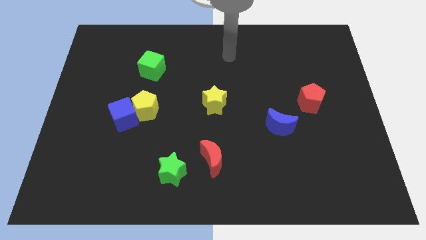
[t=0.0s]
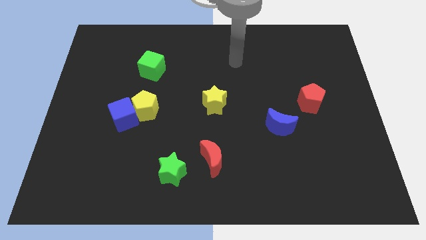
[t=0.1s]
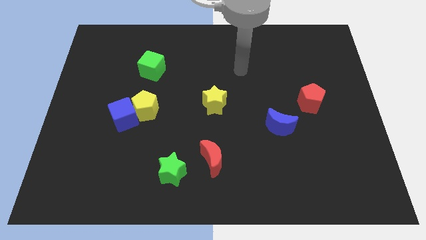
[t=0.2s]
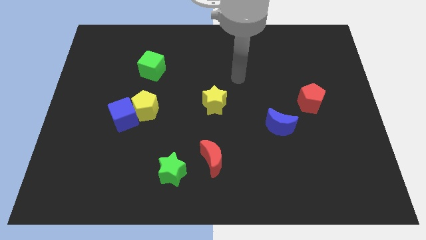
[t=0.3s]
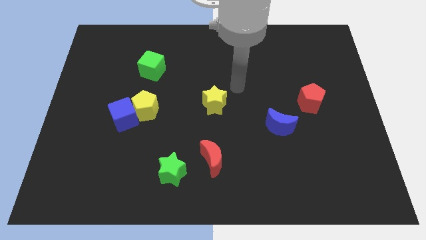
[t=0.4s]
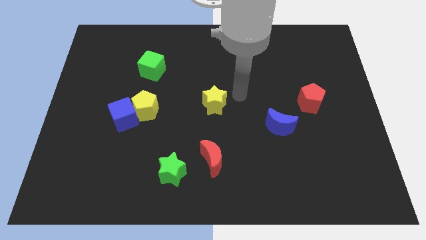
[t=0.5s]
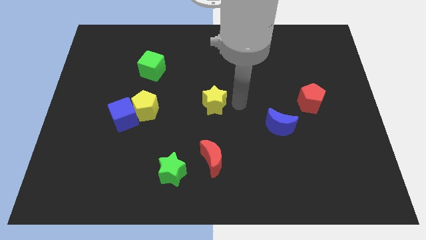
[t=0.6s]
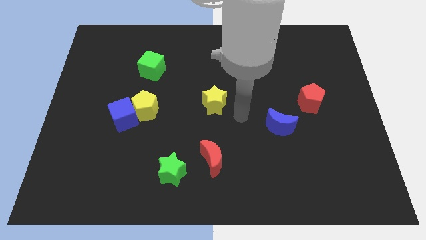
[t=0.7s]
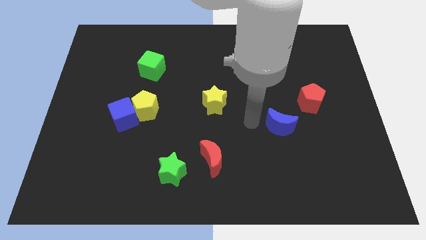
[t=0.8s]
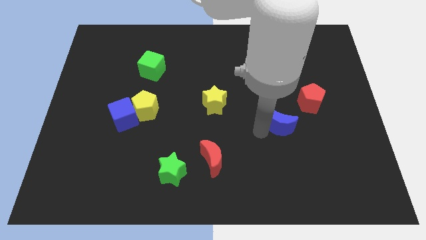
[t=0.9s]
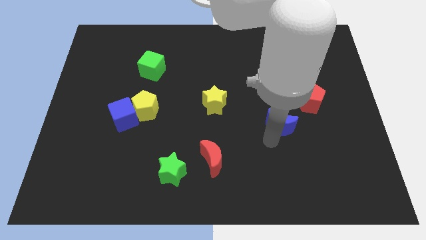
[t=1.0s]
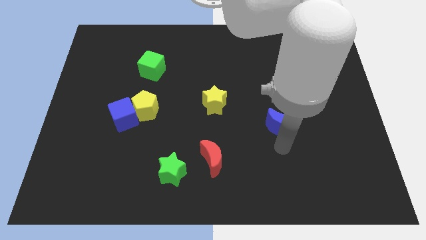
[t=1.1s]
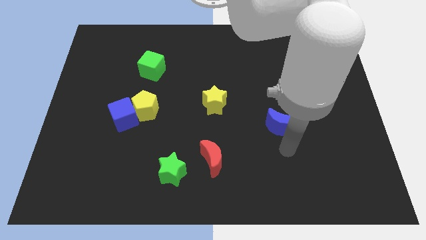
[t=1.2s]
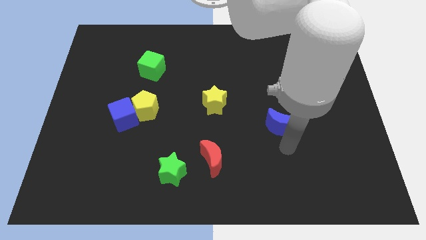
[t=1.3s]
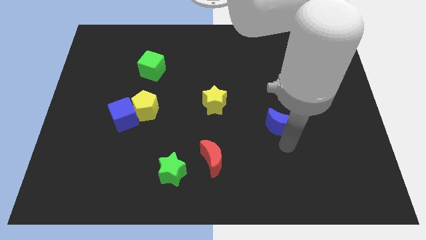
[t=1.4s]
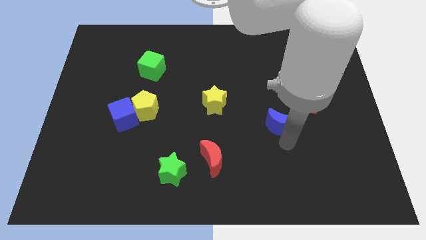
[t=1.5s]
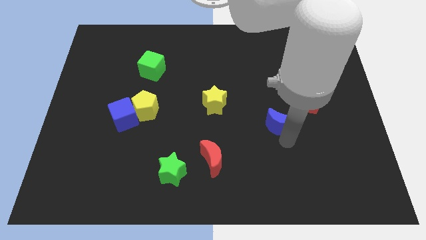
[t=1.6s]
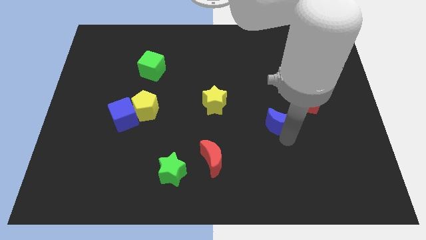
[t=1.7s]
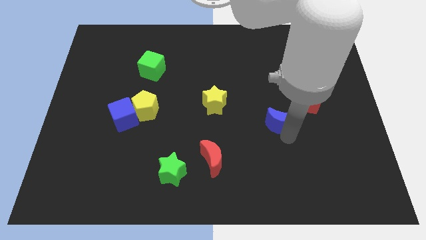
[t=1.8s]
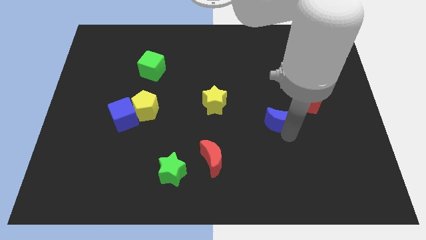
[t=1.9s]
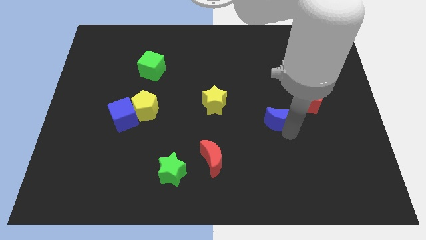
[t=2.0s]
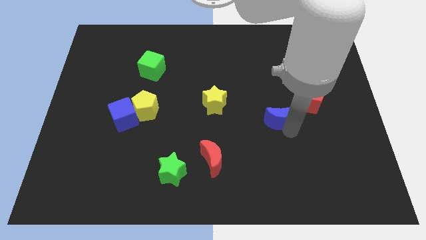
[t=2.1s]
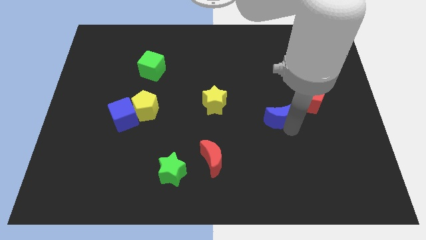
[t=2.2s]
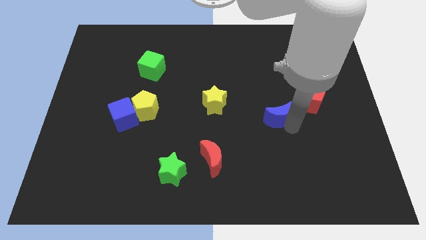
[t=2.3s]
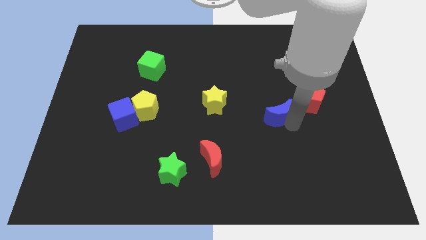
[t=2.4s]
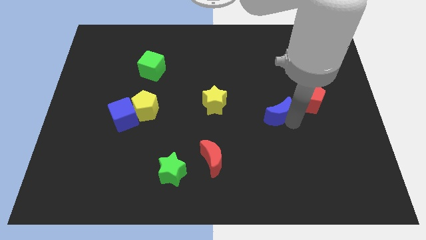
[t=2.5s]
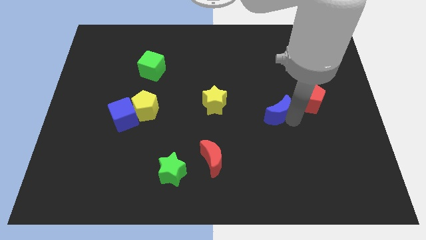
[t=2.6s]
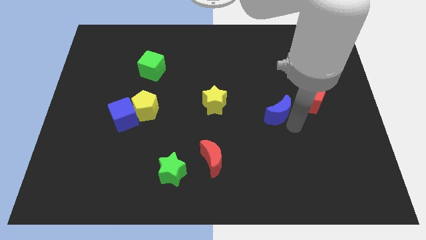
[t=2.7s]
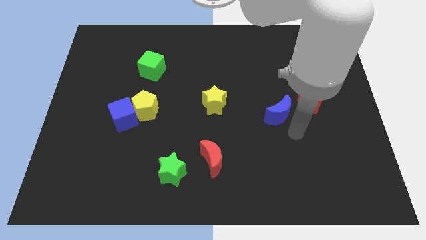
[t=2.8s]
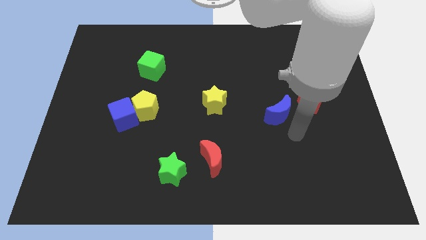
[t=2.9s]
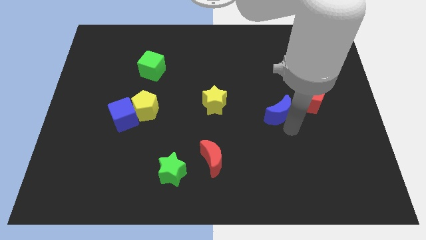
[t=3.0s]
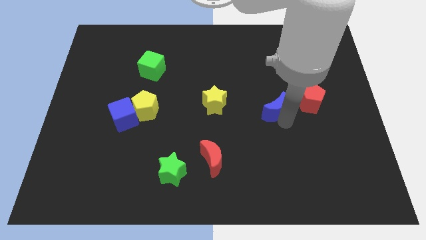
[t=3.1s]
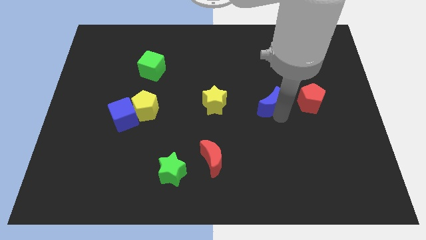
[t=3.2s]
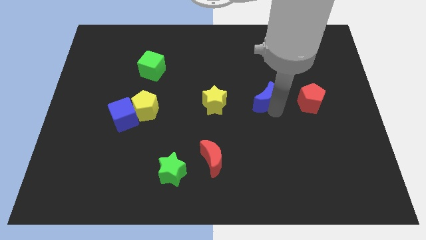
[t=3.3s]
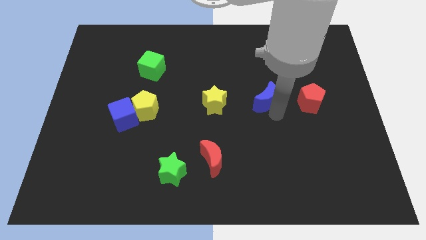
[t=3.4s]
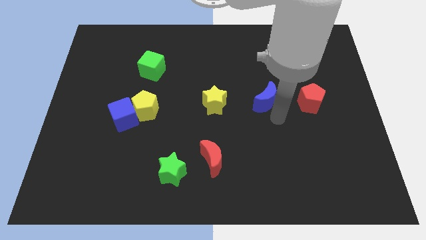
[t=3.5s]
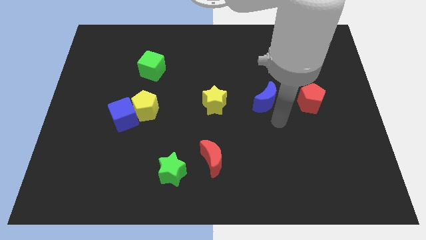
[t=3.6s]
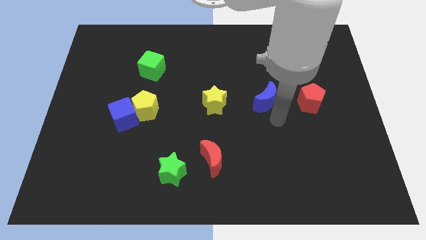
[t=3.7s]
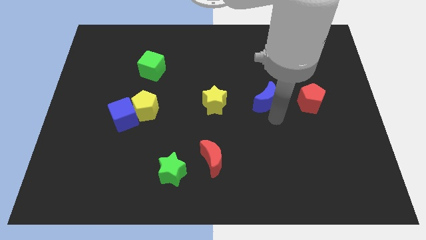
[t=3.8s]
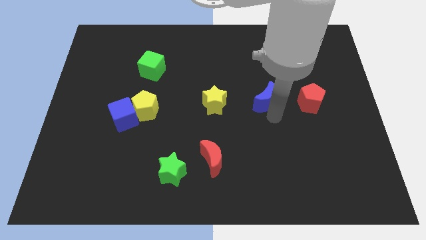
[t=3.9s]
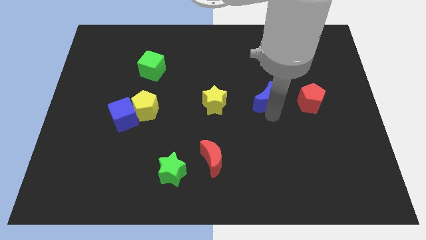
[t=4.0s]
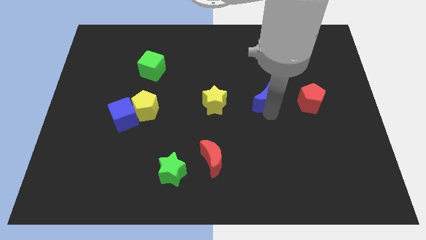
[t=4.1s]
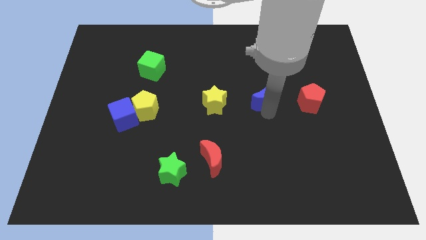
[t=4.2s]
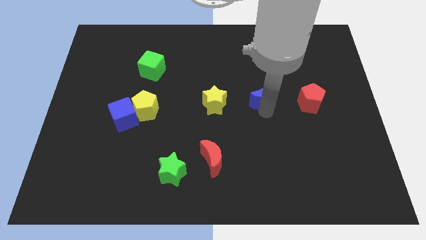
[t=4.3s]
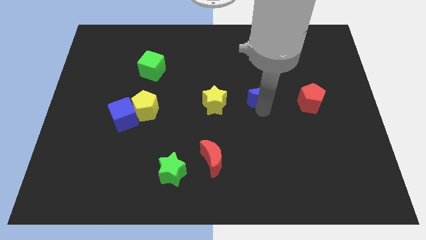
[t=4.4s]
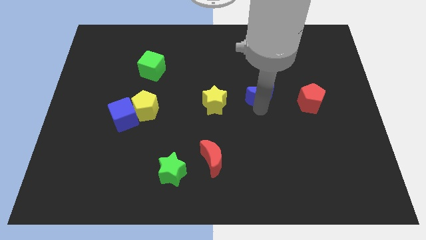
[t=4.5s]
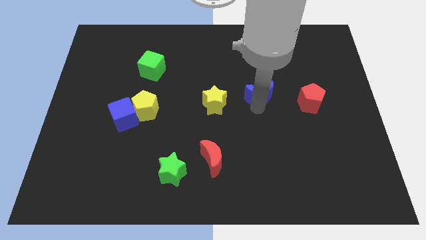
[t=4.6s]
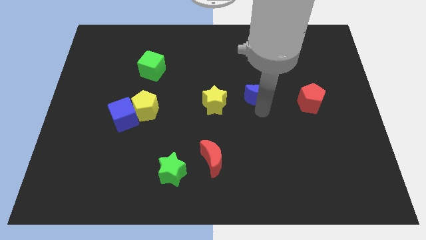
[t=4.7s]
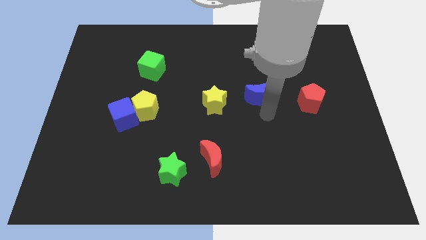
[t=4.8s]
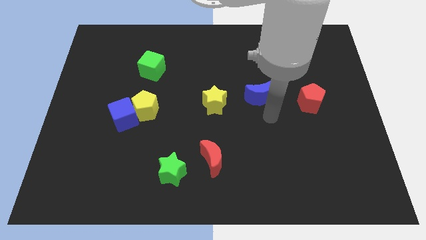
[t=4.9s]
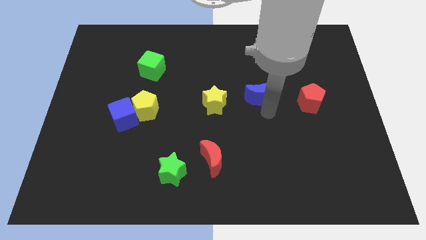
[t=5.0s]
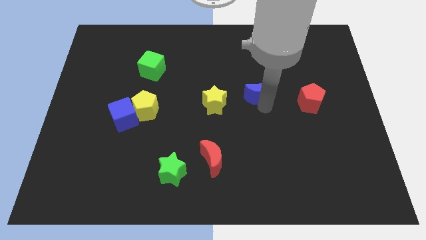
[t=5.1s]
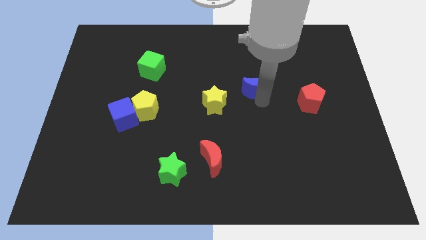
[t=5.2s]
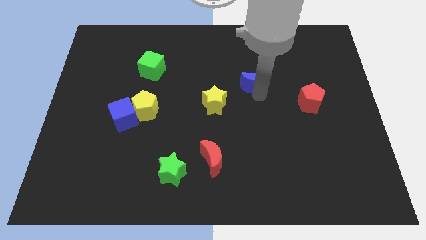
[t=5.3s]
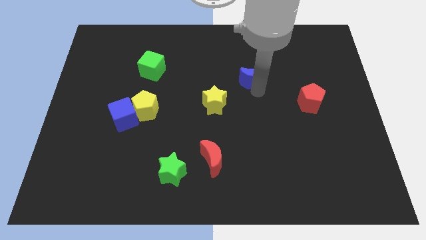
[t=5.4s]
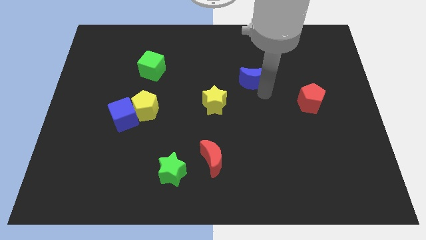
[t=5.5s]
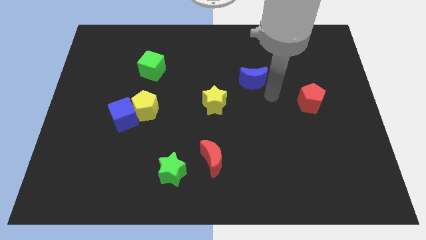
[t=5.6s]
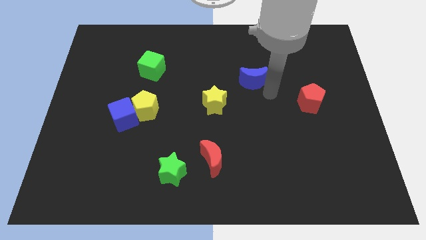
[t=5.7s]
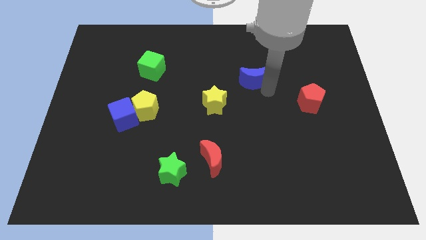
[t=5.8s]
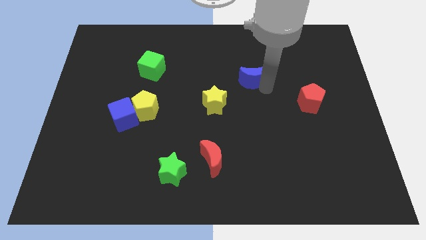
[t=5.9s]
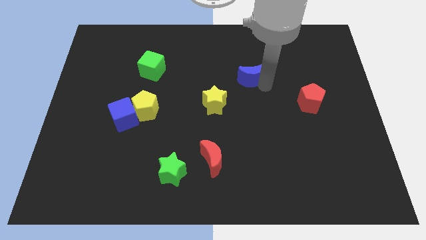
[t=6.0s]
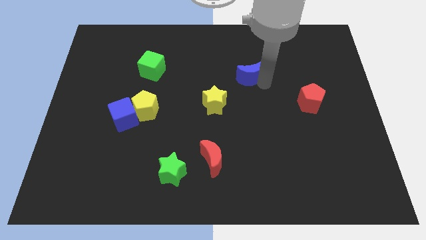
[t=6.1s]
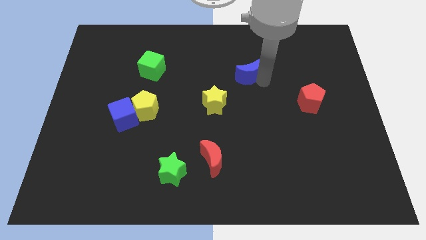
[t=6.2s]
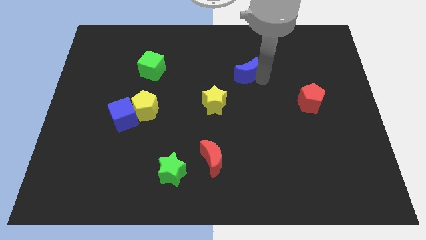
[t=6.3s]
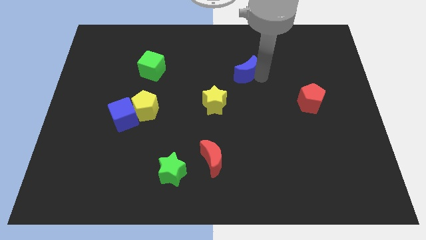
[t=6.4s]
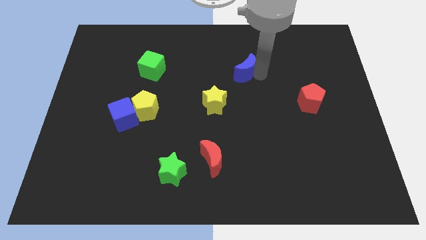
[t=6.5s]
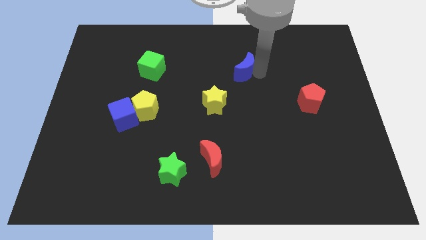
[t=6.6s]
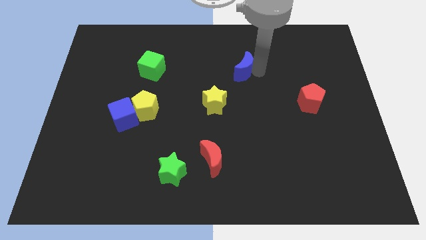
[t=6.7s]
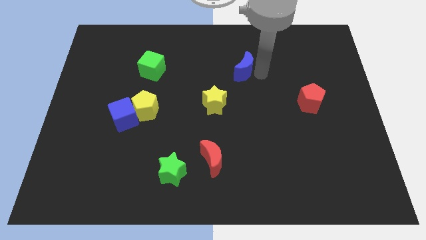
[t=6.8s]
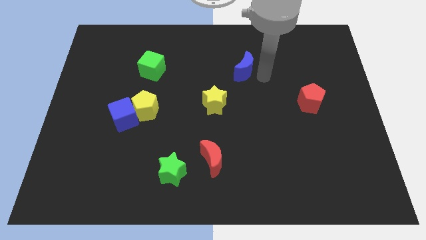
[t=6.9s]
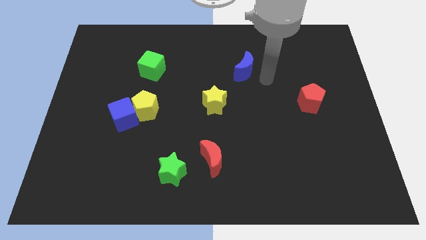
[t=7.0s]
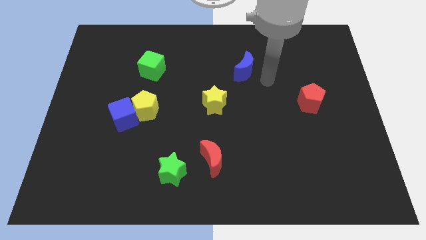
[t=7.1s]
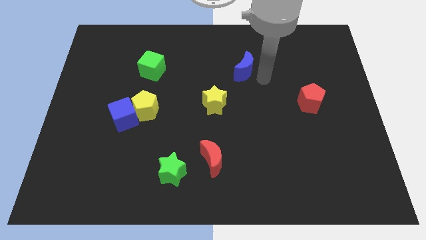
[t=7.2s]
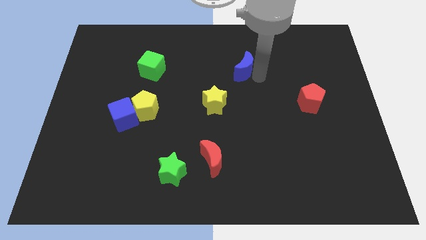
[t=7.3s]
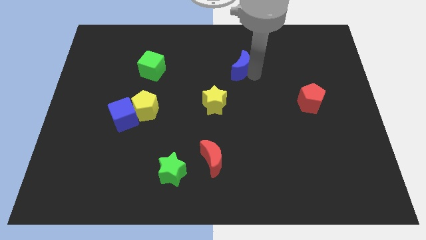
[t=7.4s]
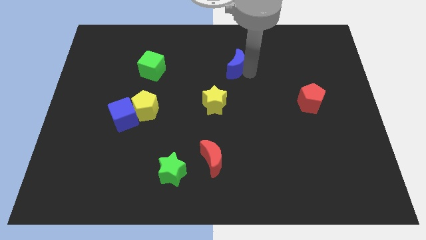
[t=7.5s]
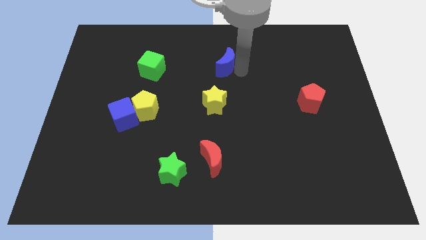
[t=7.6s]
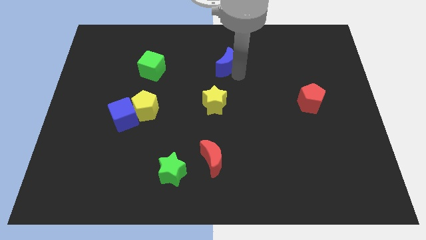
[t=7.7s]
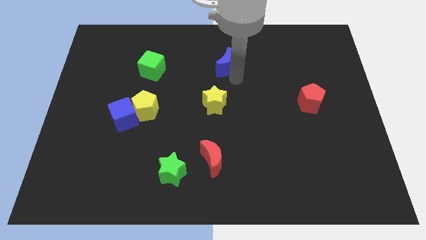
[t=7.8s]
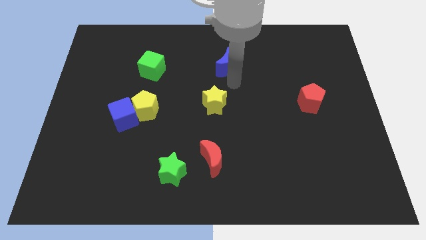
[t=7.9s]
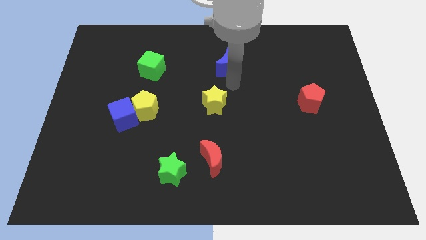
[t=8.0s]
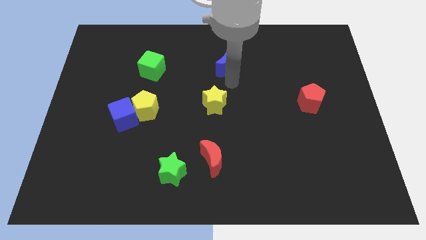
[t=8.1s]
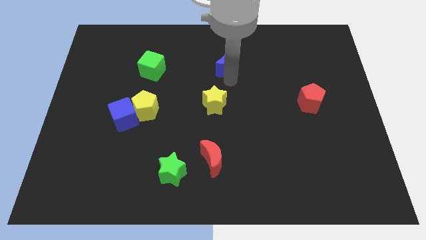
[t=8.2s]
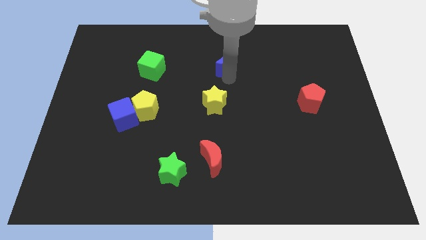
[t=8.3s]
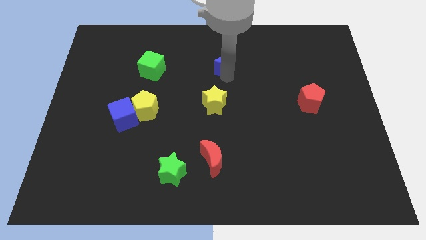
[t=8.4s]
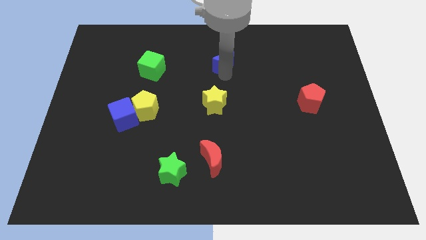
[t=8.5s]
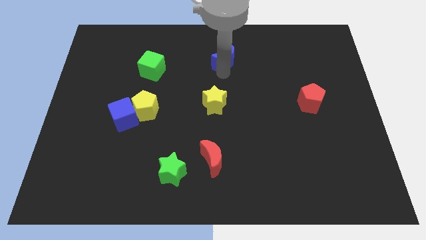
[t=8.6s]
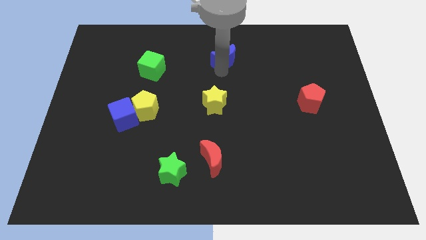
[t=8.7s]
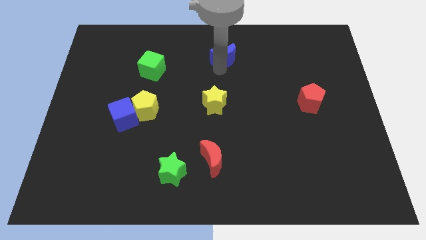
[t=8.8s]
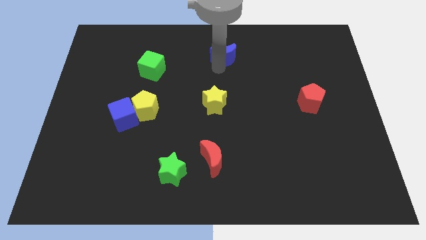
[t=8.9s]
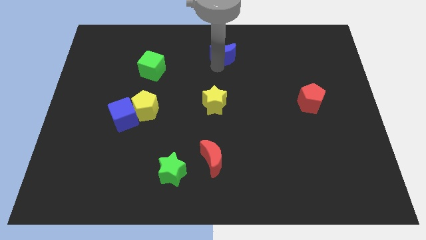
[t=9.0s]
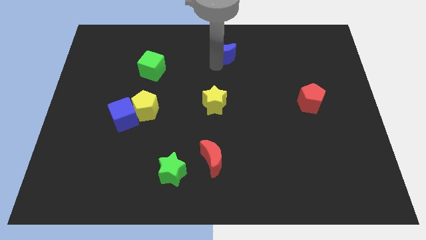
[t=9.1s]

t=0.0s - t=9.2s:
push the blue moon to the top
